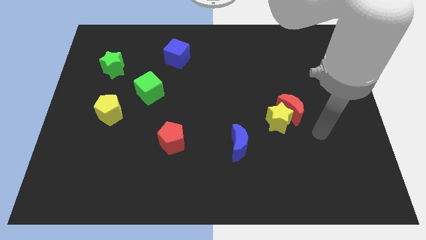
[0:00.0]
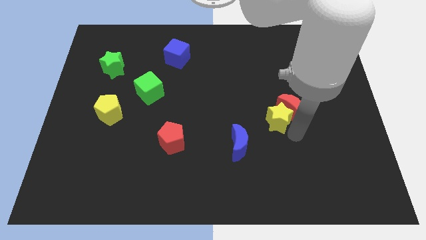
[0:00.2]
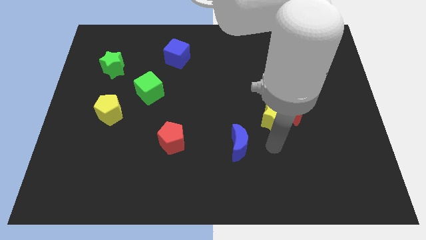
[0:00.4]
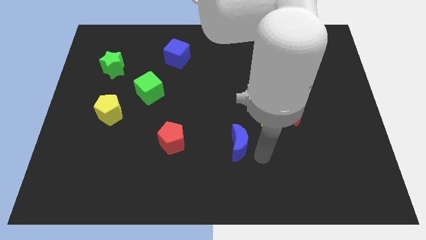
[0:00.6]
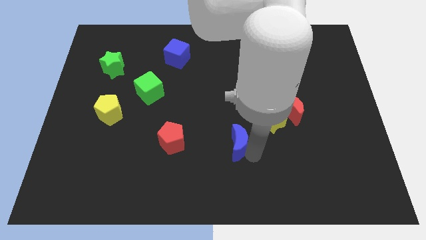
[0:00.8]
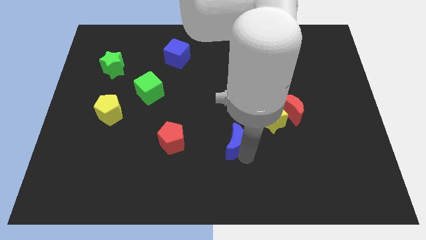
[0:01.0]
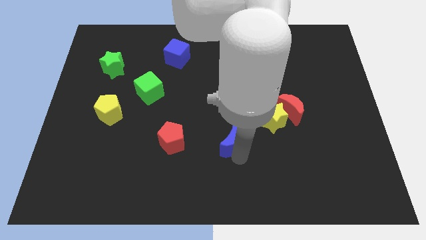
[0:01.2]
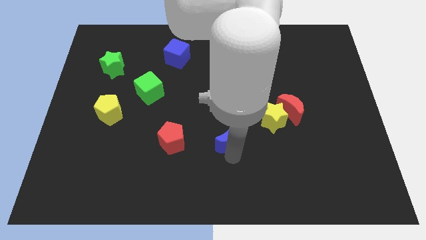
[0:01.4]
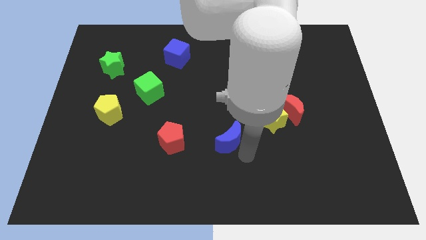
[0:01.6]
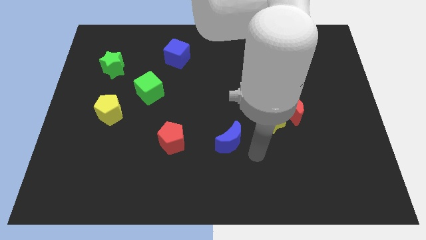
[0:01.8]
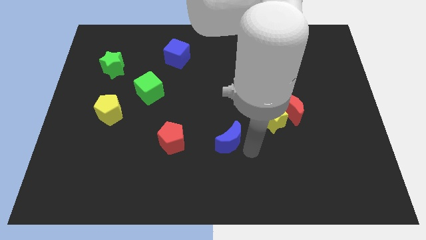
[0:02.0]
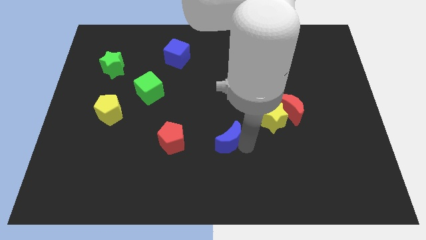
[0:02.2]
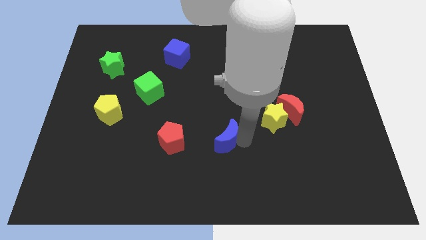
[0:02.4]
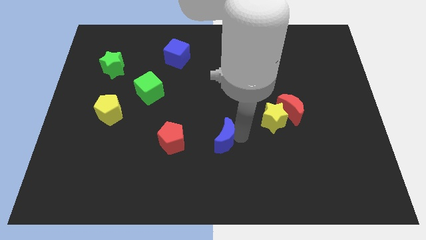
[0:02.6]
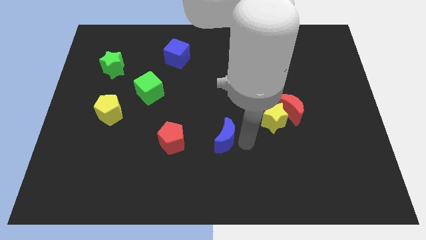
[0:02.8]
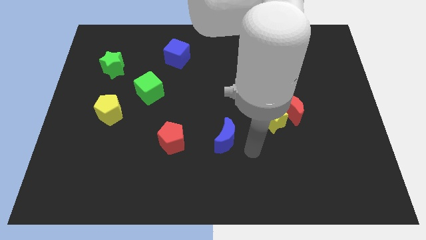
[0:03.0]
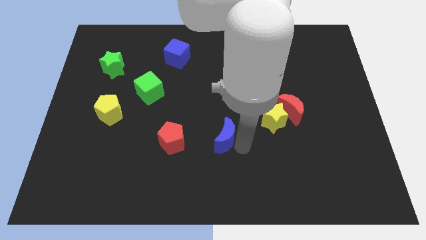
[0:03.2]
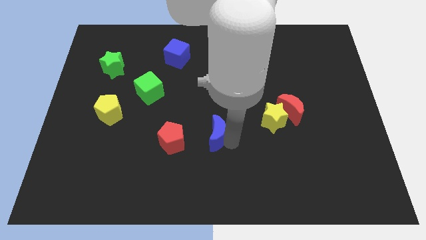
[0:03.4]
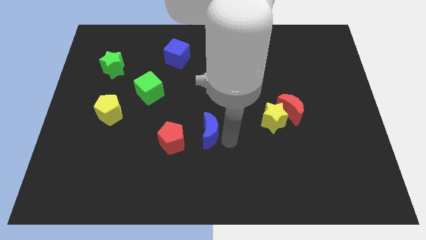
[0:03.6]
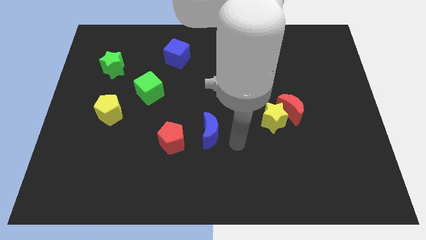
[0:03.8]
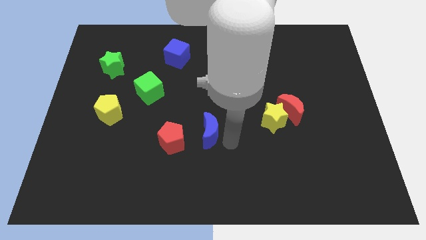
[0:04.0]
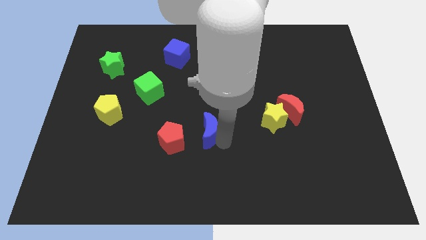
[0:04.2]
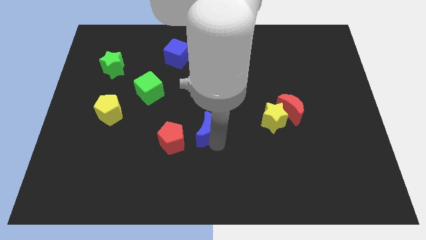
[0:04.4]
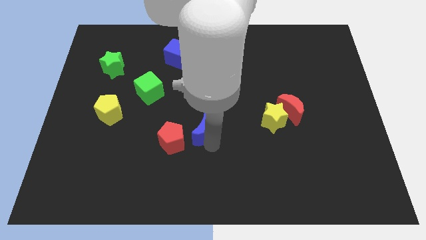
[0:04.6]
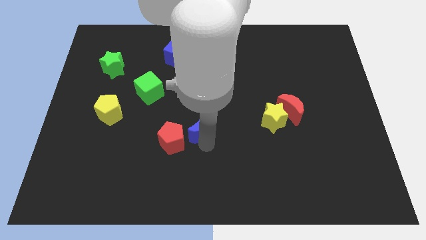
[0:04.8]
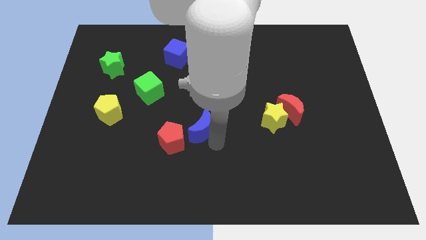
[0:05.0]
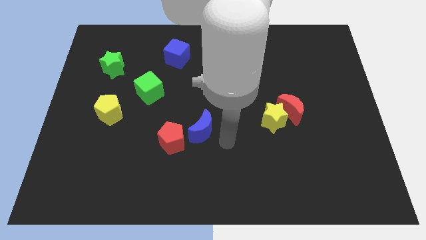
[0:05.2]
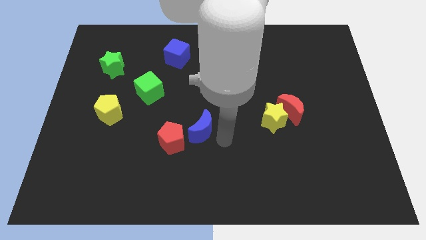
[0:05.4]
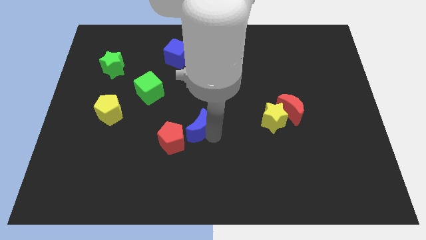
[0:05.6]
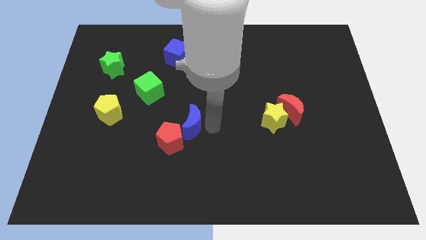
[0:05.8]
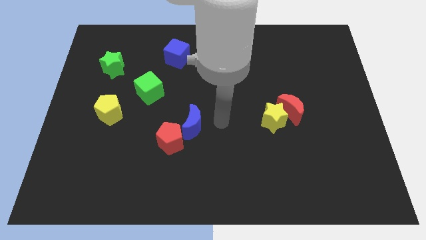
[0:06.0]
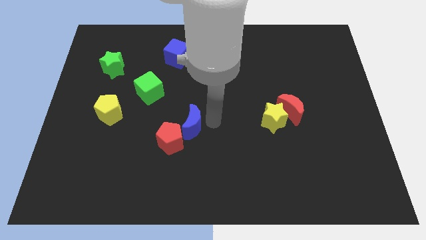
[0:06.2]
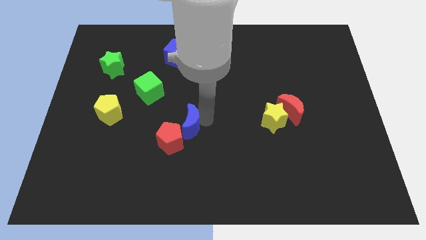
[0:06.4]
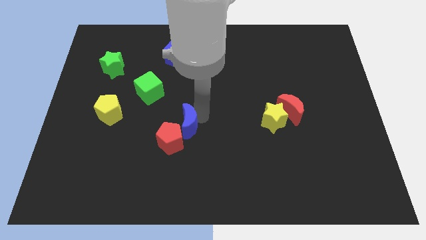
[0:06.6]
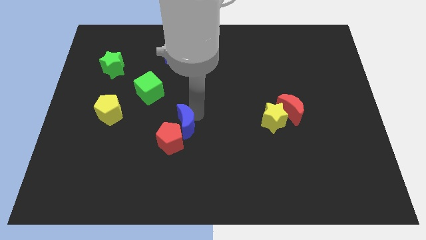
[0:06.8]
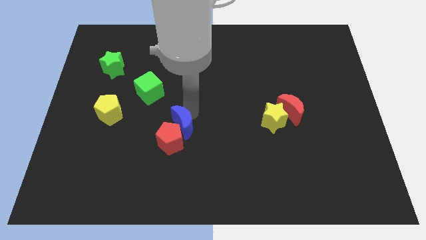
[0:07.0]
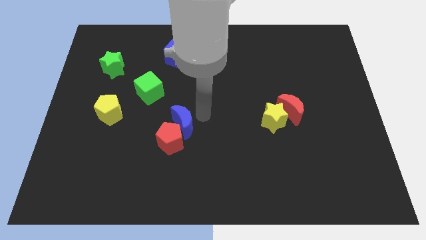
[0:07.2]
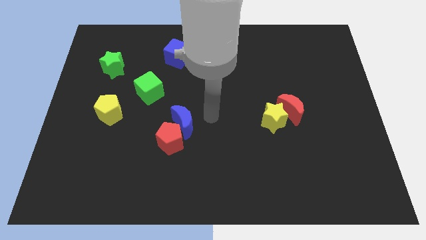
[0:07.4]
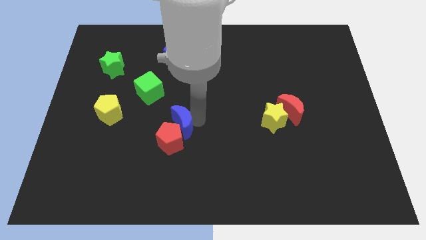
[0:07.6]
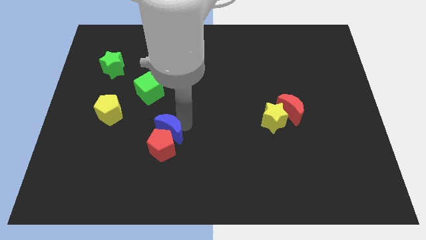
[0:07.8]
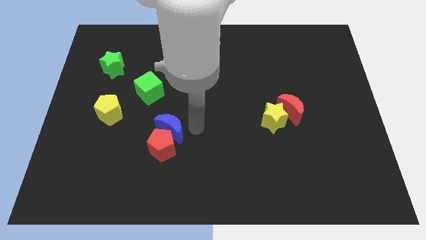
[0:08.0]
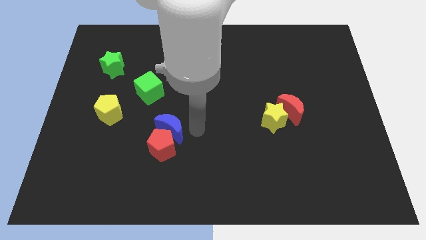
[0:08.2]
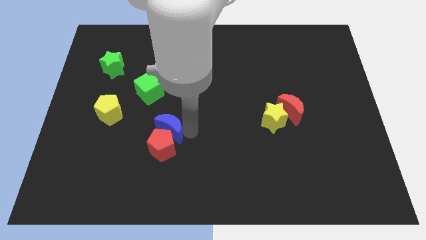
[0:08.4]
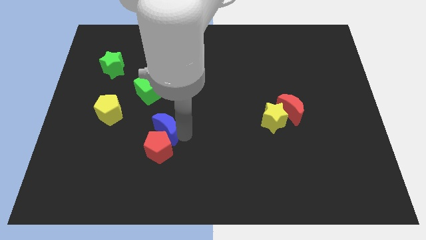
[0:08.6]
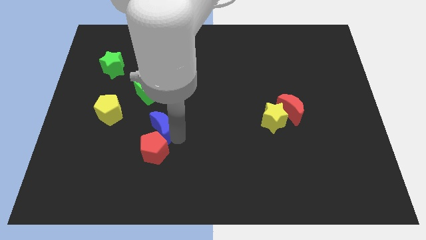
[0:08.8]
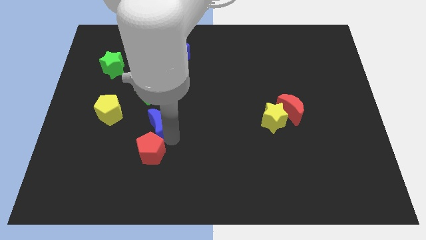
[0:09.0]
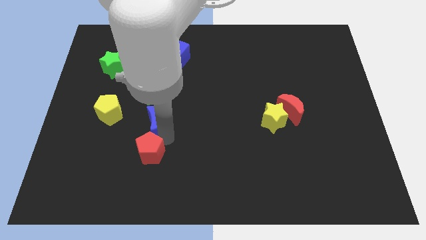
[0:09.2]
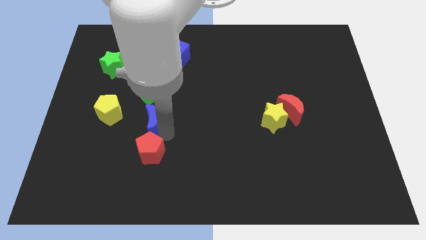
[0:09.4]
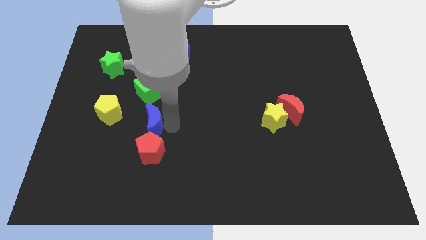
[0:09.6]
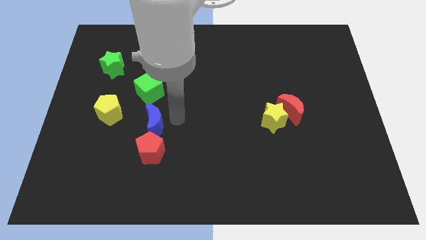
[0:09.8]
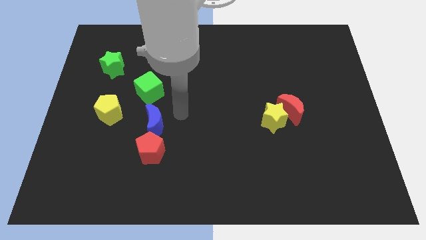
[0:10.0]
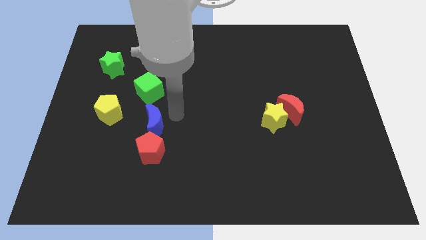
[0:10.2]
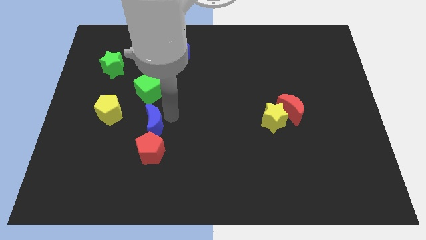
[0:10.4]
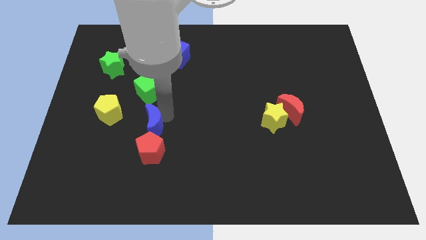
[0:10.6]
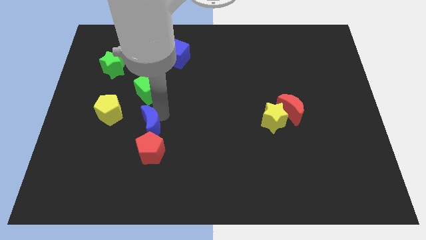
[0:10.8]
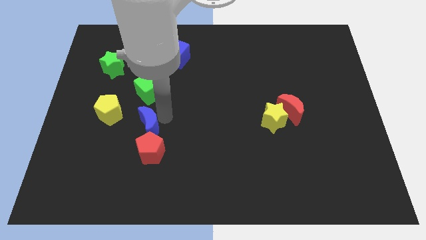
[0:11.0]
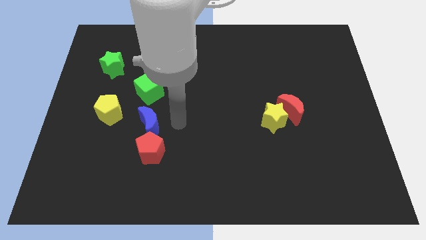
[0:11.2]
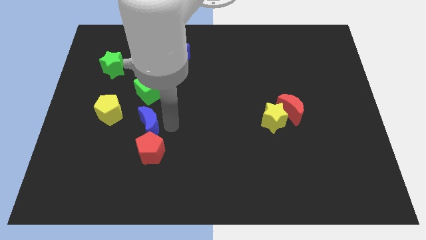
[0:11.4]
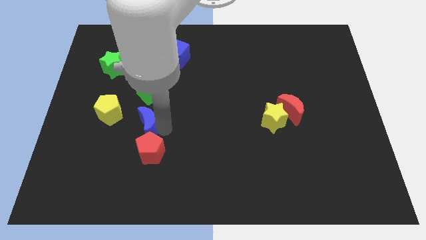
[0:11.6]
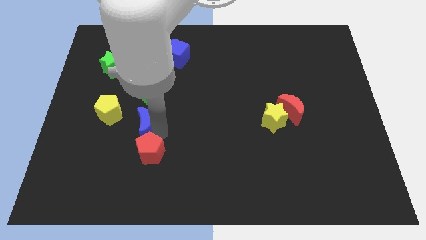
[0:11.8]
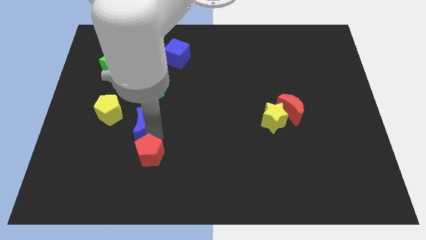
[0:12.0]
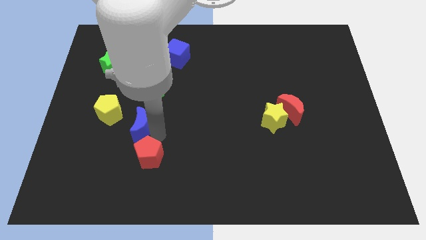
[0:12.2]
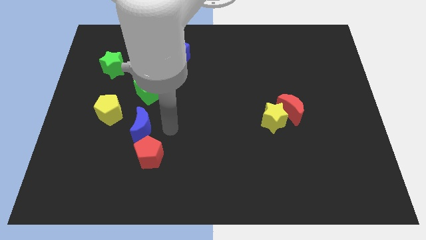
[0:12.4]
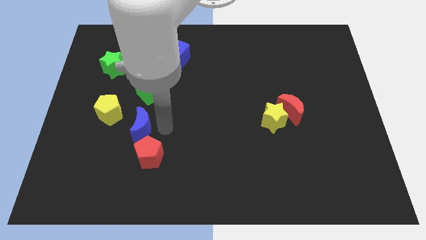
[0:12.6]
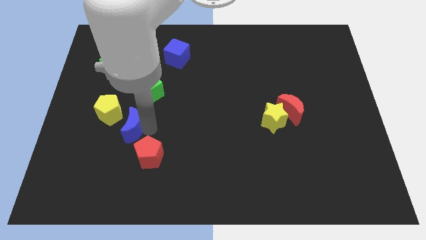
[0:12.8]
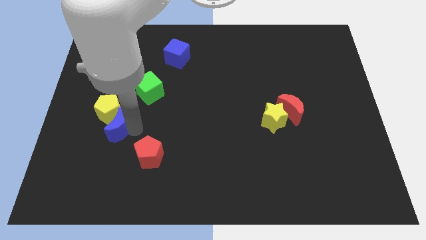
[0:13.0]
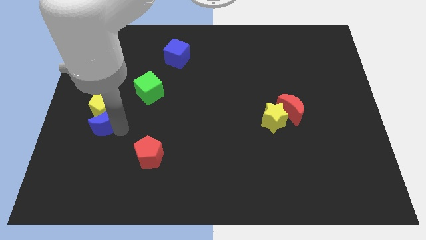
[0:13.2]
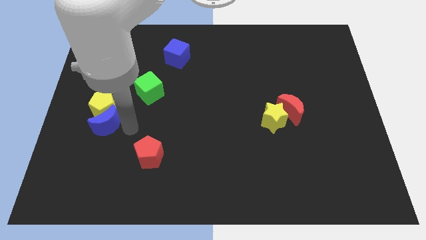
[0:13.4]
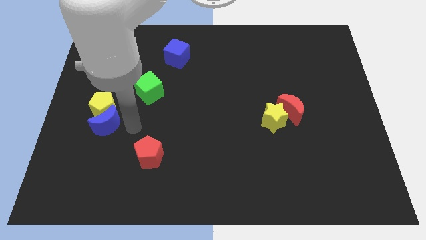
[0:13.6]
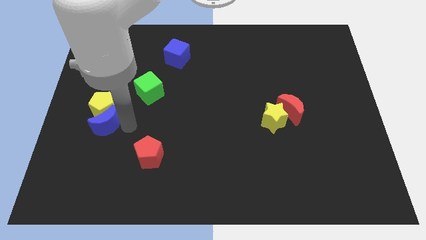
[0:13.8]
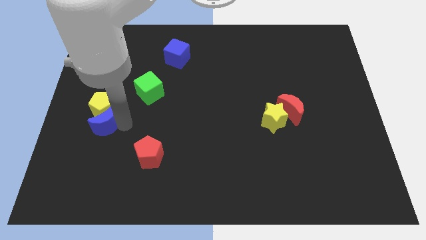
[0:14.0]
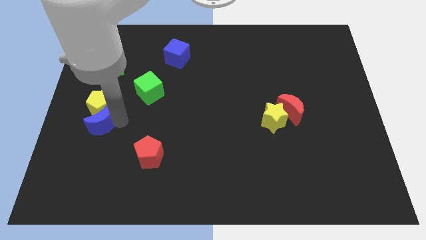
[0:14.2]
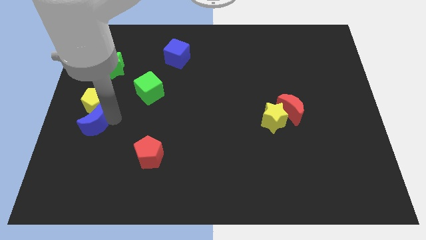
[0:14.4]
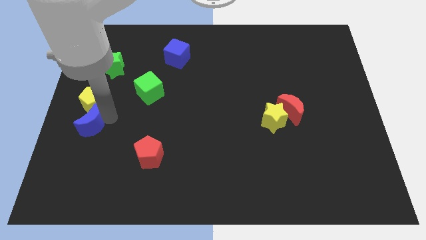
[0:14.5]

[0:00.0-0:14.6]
push the blue moon to the left side of the board
